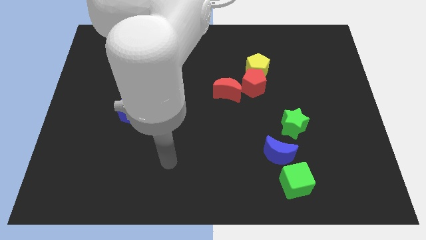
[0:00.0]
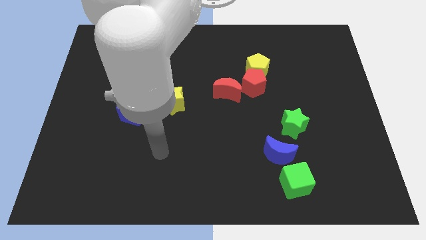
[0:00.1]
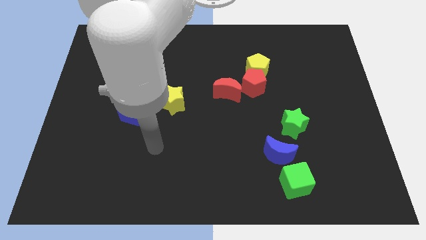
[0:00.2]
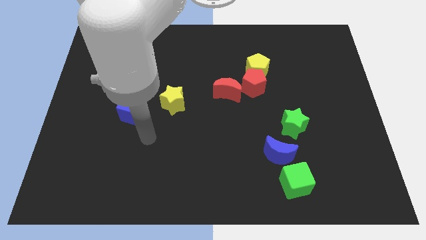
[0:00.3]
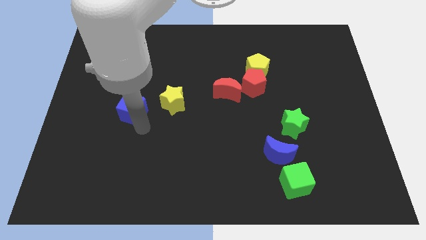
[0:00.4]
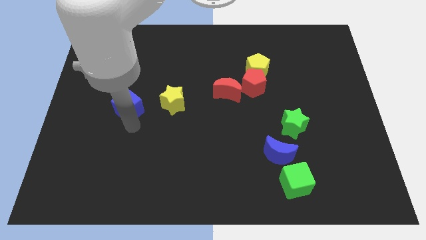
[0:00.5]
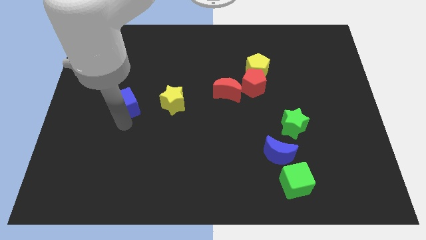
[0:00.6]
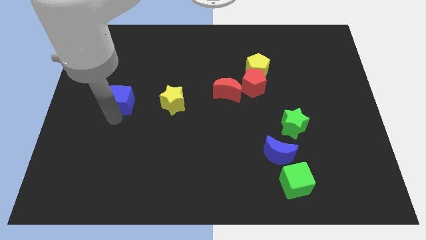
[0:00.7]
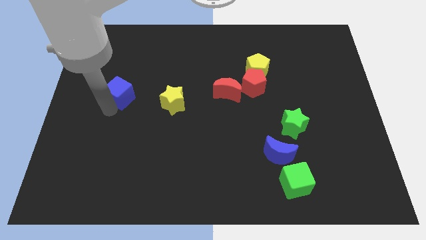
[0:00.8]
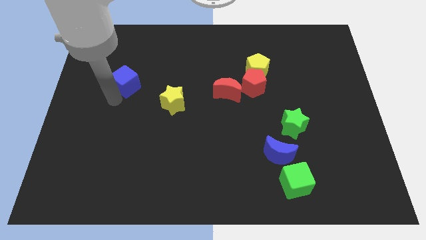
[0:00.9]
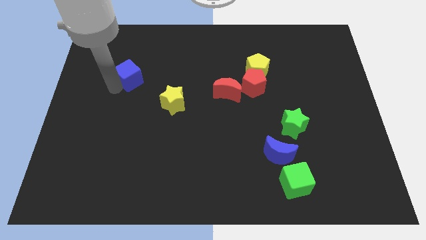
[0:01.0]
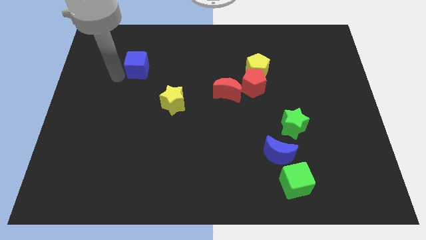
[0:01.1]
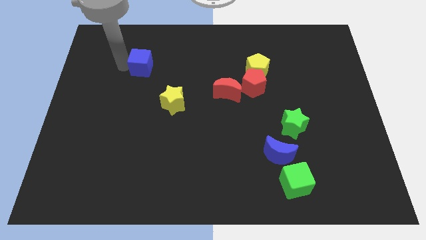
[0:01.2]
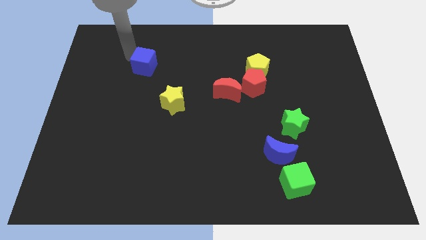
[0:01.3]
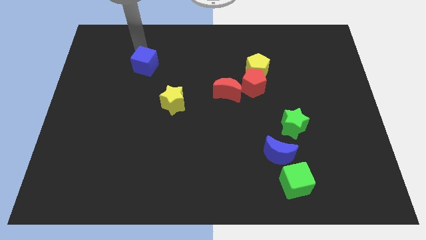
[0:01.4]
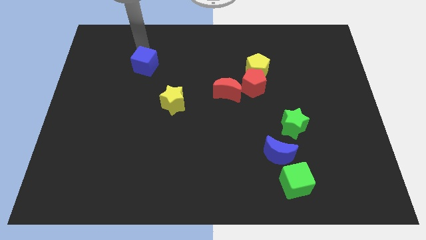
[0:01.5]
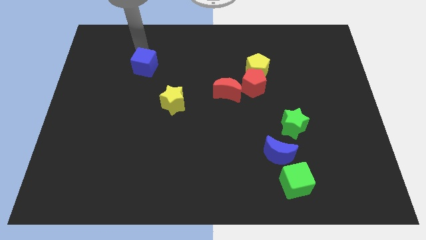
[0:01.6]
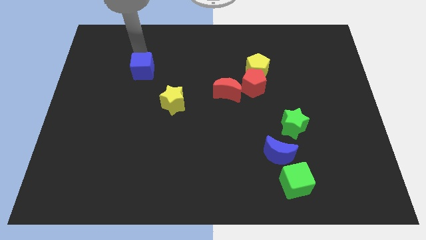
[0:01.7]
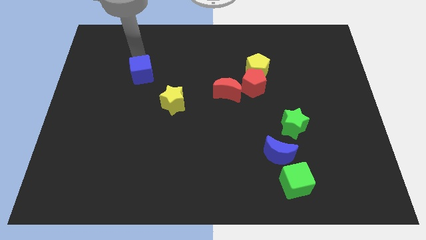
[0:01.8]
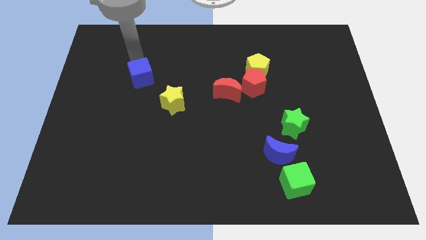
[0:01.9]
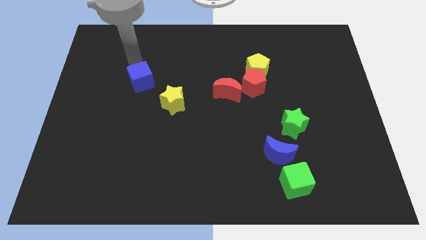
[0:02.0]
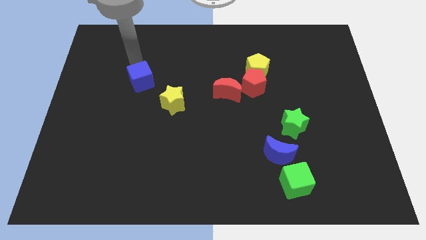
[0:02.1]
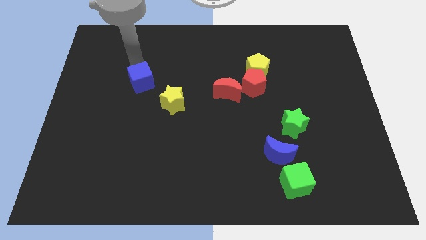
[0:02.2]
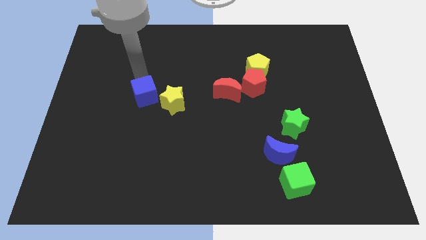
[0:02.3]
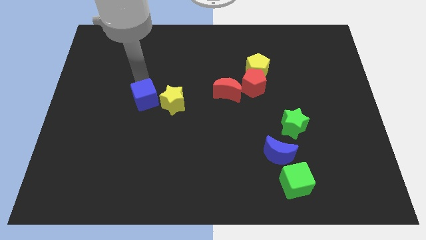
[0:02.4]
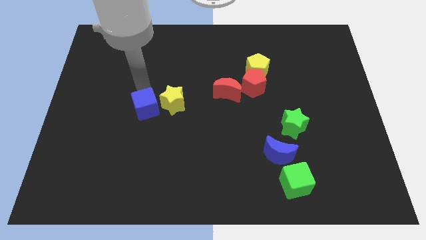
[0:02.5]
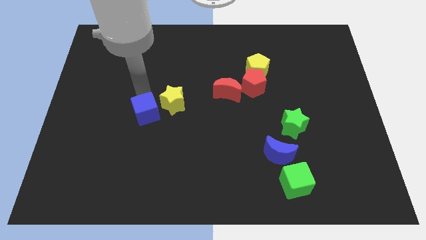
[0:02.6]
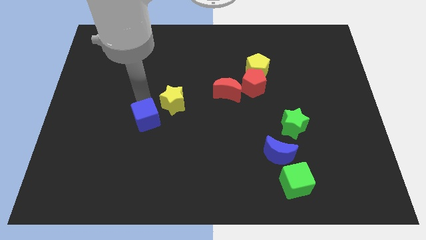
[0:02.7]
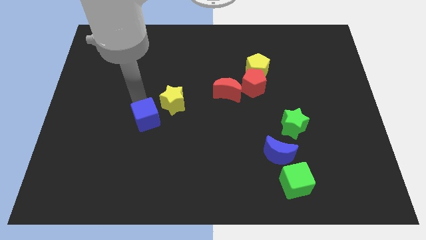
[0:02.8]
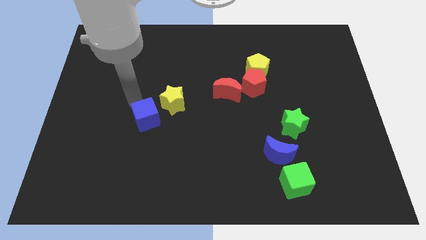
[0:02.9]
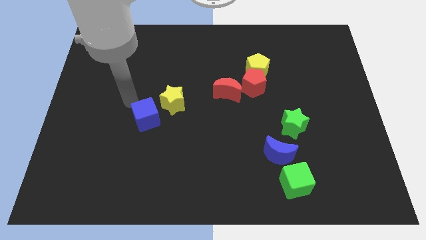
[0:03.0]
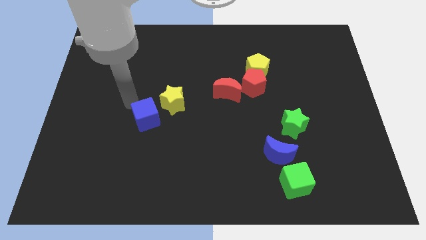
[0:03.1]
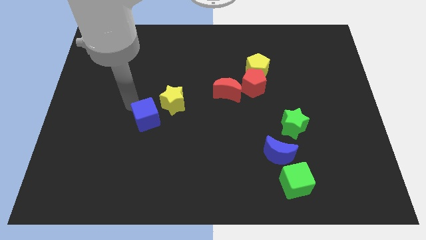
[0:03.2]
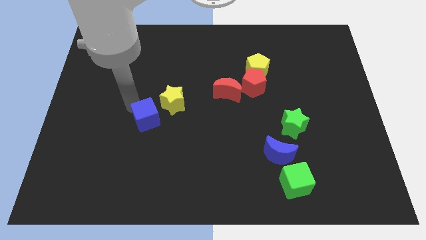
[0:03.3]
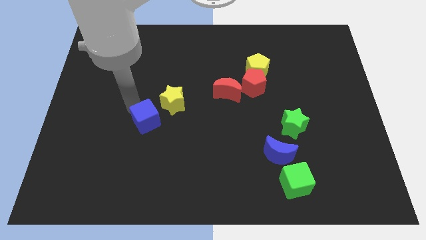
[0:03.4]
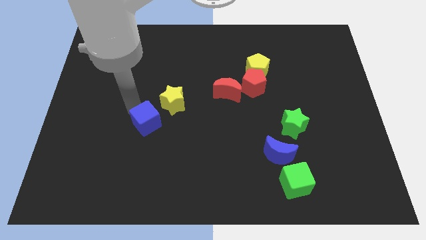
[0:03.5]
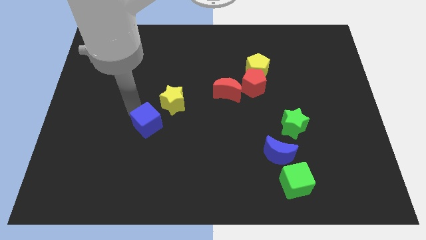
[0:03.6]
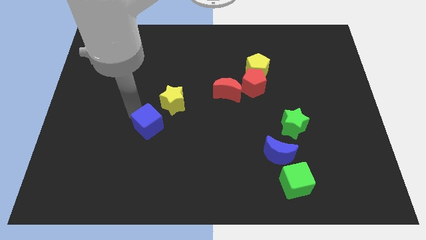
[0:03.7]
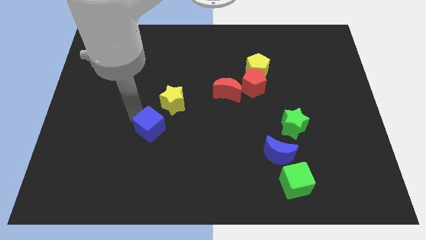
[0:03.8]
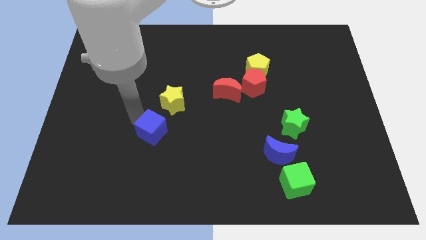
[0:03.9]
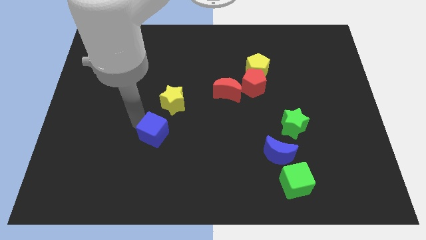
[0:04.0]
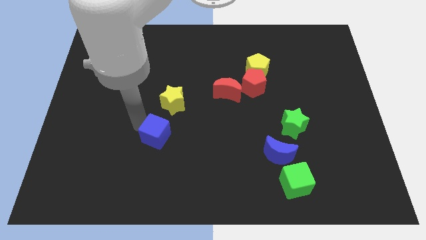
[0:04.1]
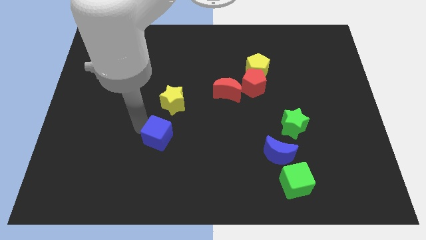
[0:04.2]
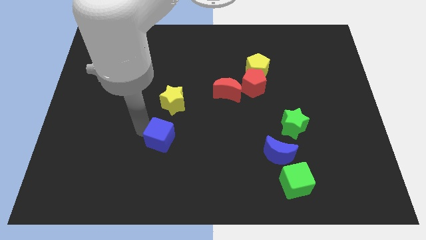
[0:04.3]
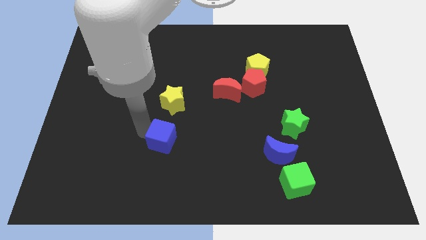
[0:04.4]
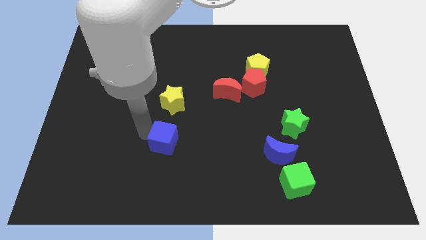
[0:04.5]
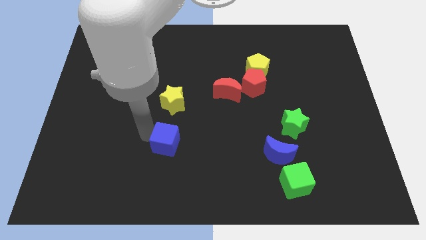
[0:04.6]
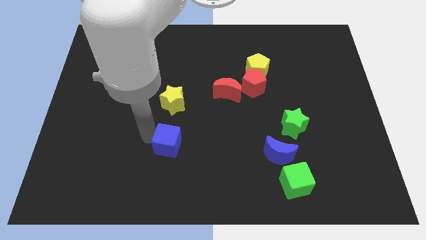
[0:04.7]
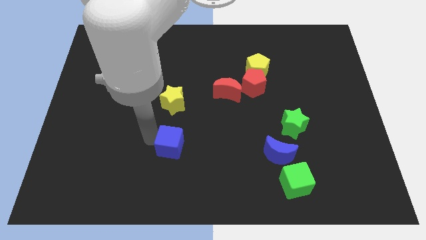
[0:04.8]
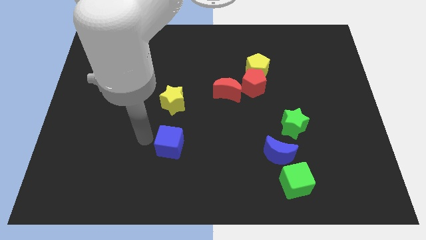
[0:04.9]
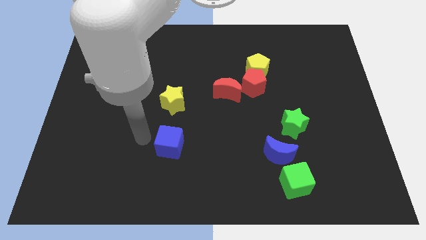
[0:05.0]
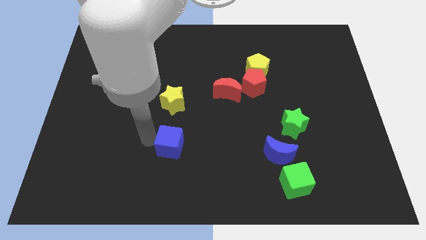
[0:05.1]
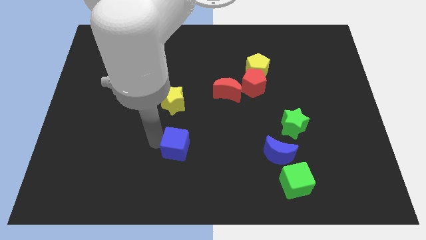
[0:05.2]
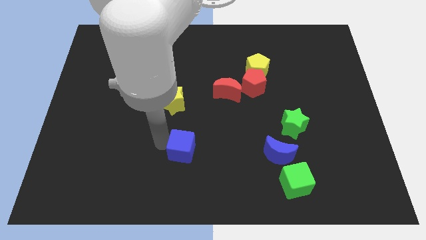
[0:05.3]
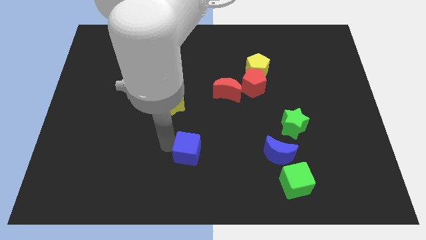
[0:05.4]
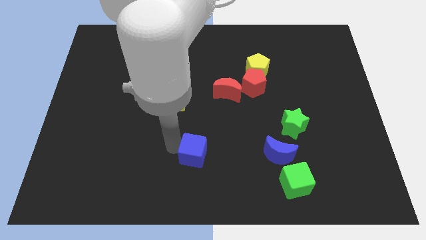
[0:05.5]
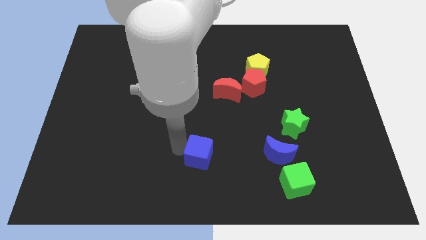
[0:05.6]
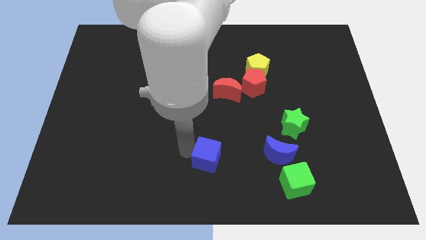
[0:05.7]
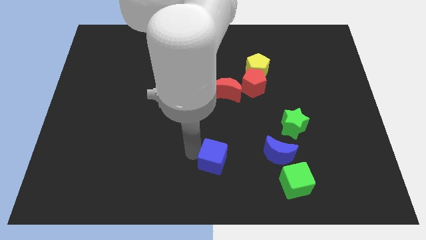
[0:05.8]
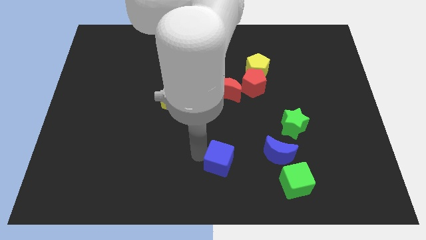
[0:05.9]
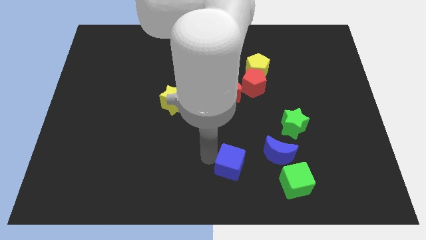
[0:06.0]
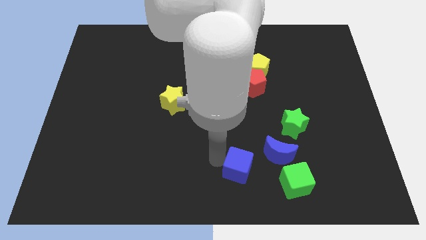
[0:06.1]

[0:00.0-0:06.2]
put the blue cube to the bottom left of the blue moon

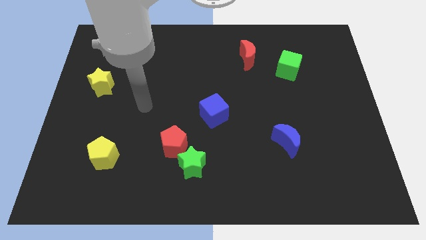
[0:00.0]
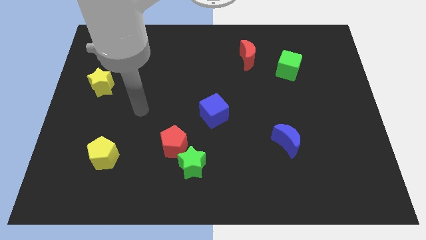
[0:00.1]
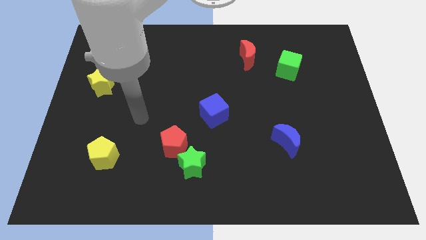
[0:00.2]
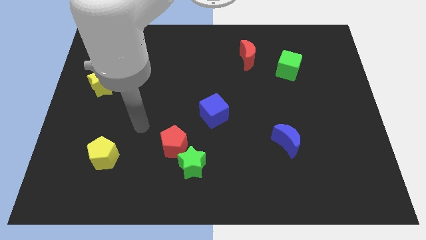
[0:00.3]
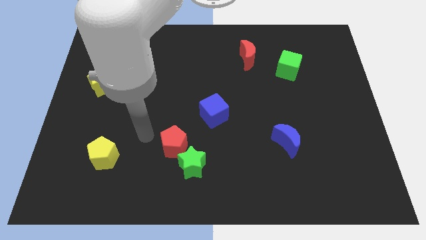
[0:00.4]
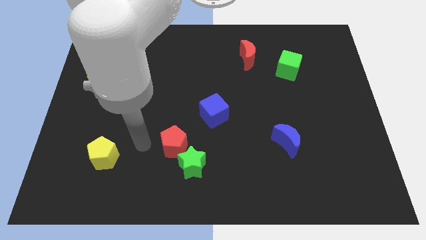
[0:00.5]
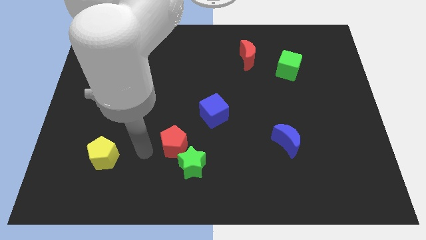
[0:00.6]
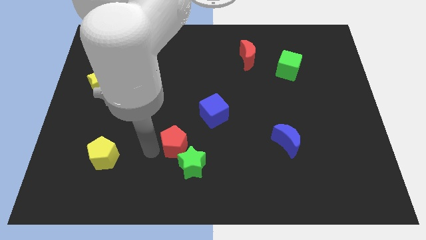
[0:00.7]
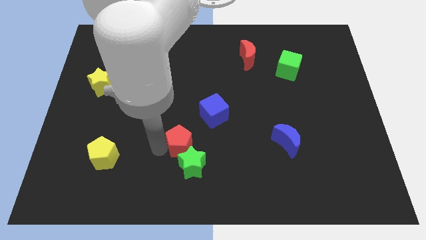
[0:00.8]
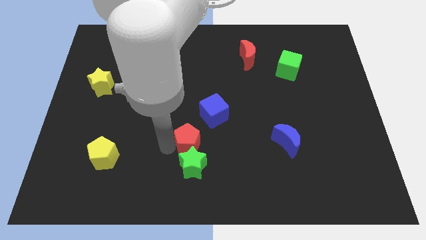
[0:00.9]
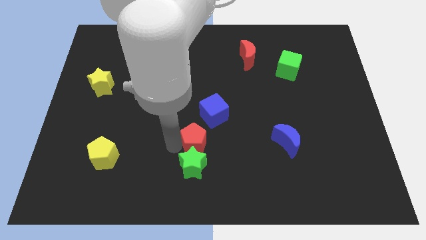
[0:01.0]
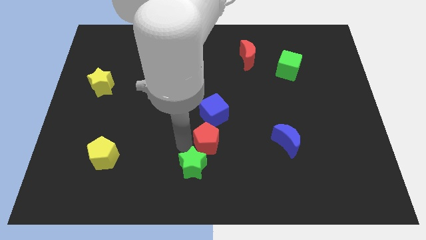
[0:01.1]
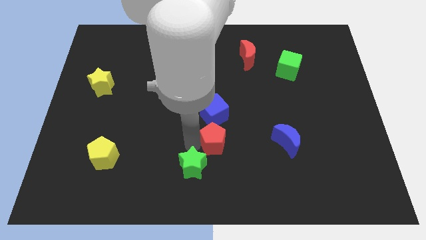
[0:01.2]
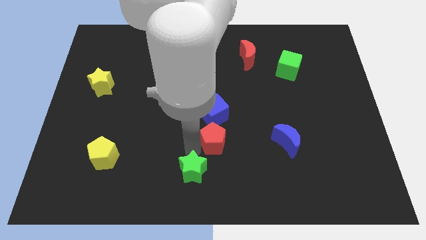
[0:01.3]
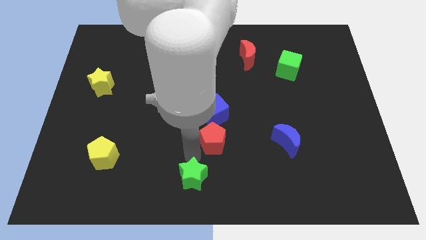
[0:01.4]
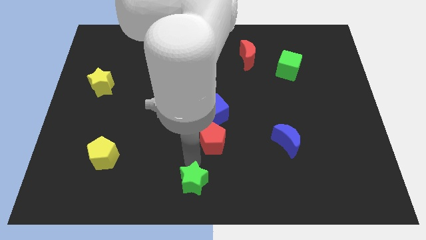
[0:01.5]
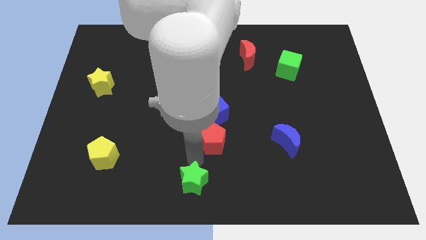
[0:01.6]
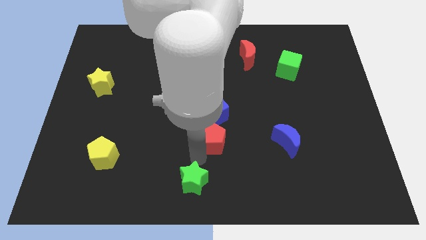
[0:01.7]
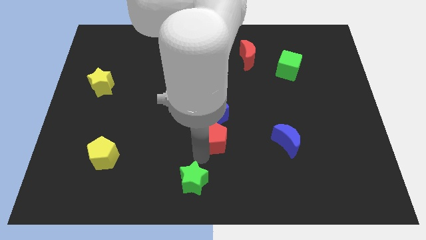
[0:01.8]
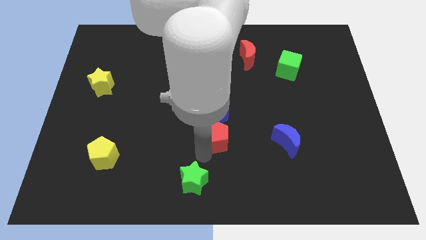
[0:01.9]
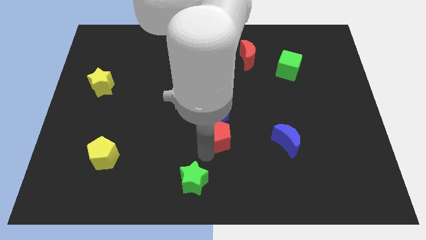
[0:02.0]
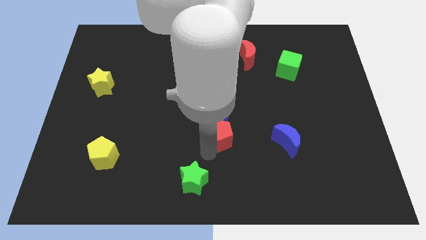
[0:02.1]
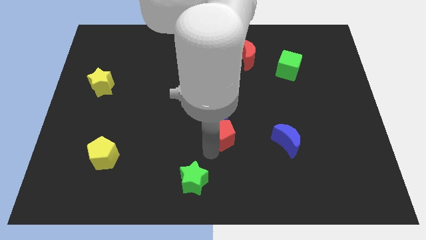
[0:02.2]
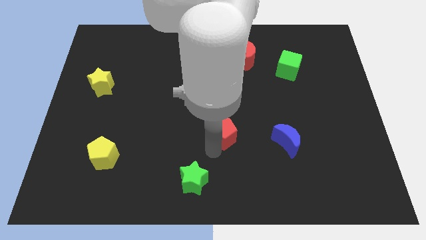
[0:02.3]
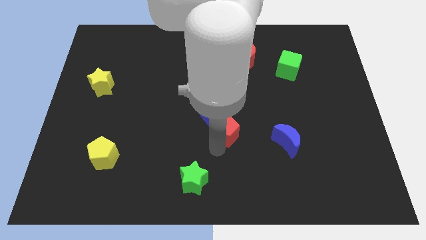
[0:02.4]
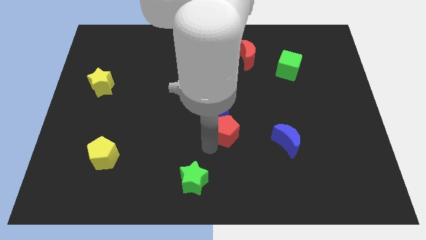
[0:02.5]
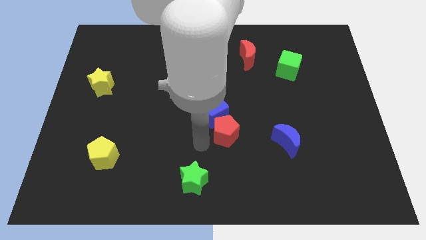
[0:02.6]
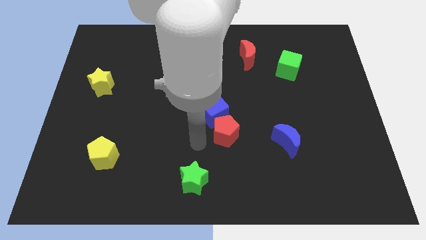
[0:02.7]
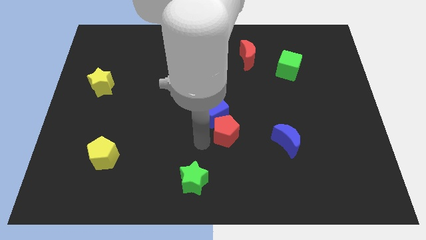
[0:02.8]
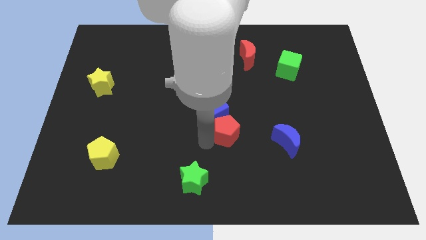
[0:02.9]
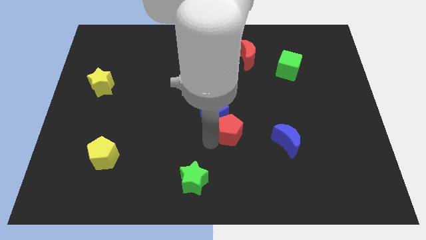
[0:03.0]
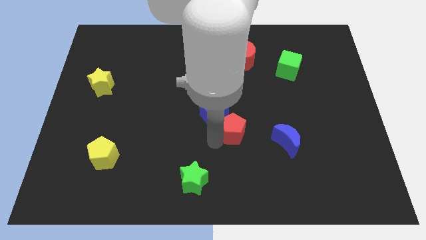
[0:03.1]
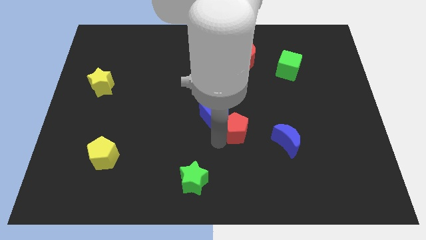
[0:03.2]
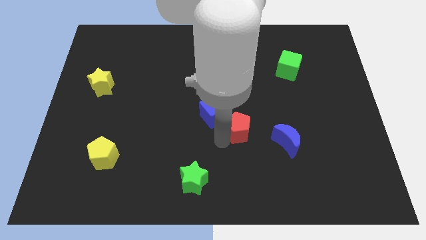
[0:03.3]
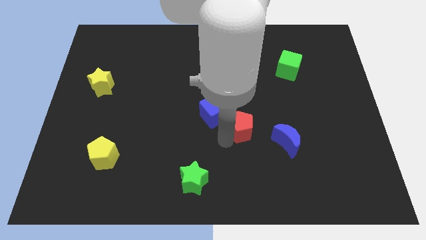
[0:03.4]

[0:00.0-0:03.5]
slide the red pentagon to the top left side of the blue moon
